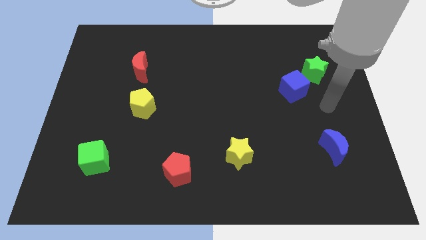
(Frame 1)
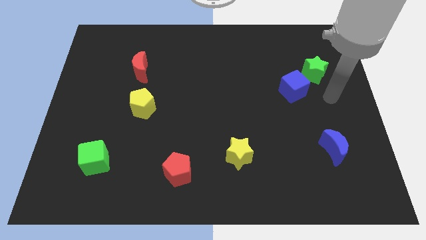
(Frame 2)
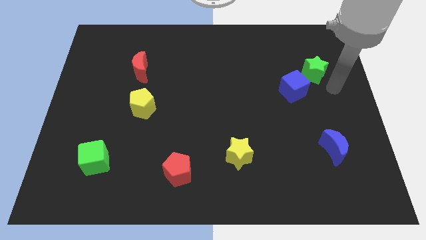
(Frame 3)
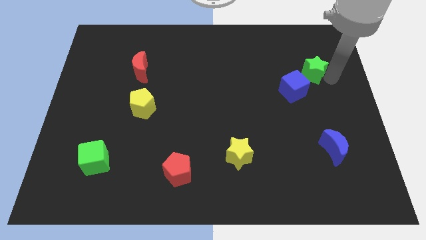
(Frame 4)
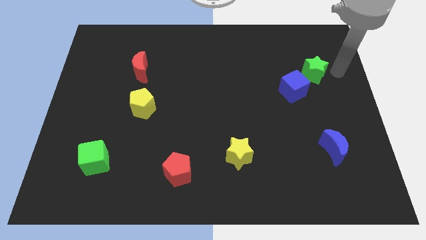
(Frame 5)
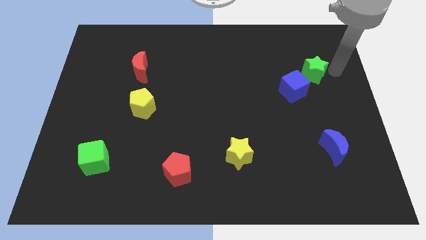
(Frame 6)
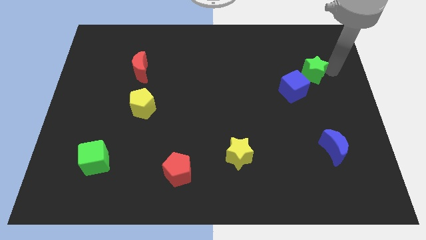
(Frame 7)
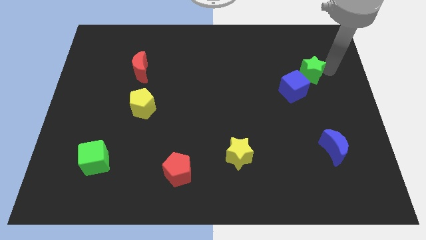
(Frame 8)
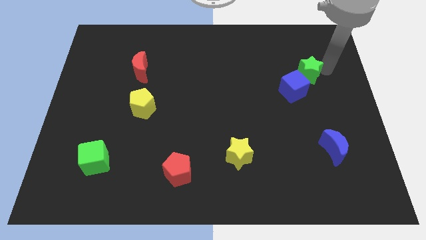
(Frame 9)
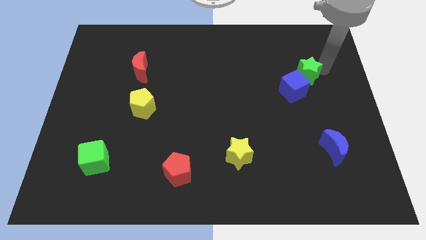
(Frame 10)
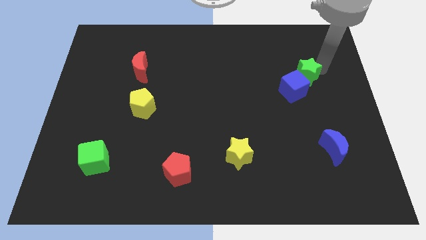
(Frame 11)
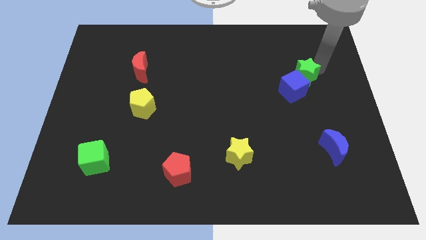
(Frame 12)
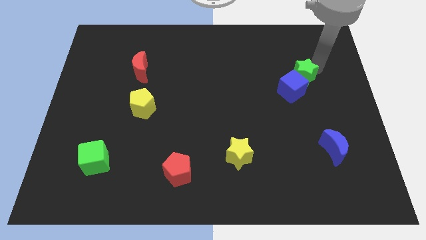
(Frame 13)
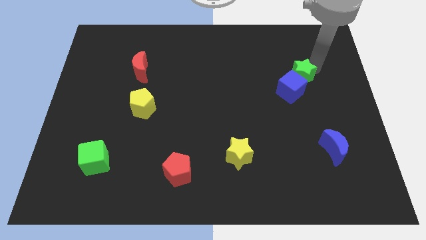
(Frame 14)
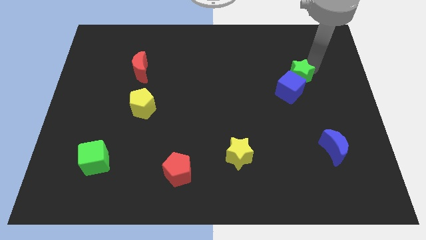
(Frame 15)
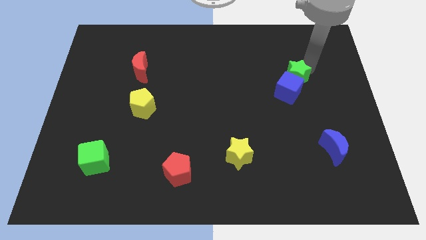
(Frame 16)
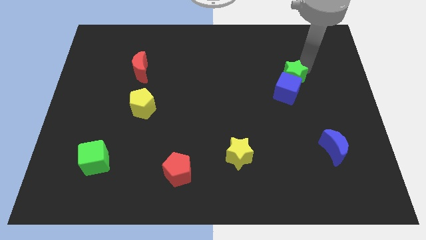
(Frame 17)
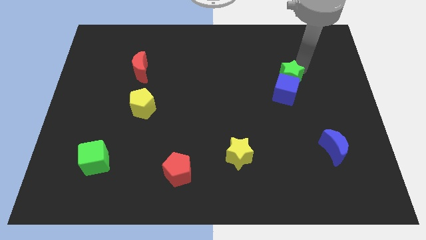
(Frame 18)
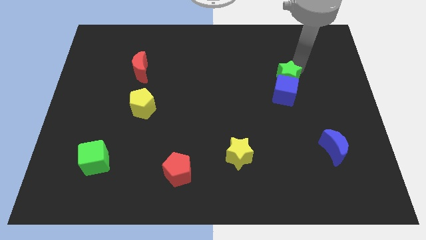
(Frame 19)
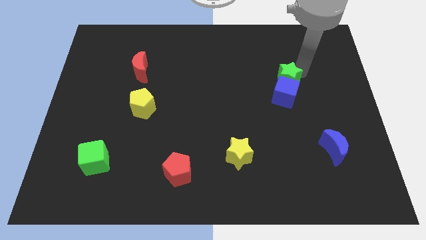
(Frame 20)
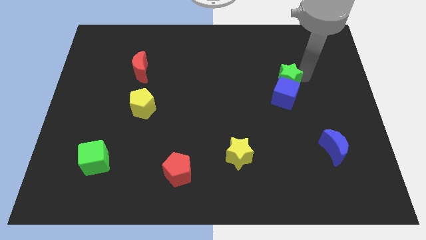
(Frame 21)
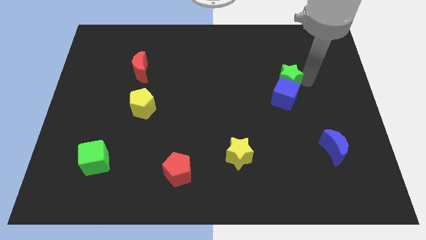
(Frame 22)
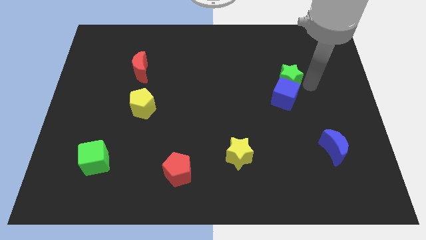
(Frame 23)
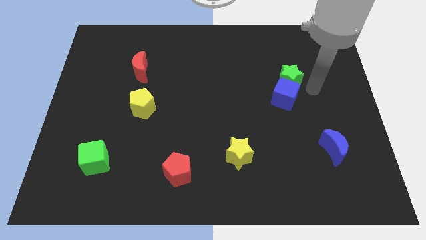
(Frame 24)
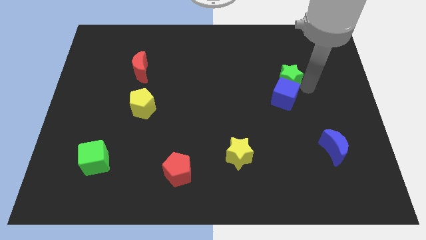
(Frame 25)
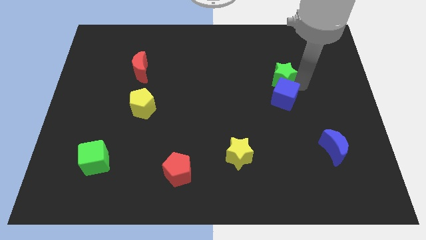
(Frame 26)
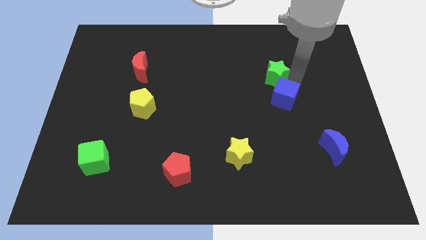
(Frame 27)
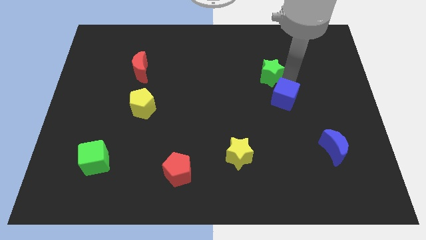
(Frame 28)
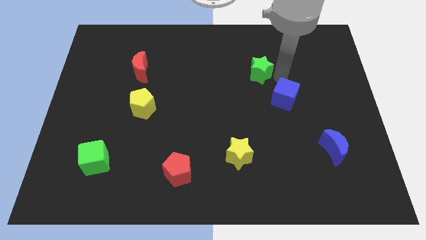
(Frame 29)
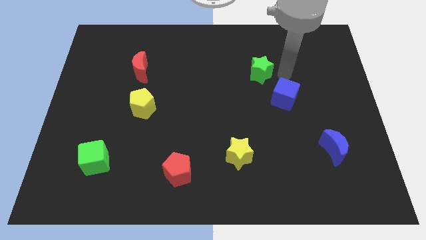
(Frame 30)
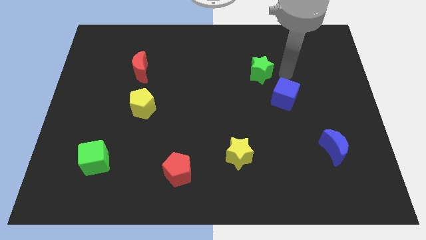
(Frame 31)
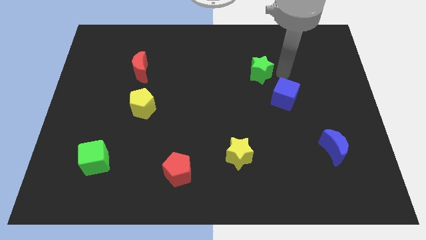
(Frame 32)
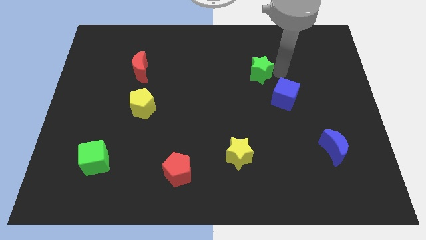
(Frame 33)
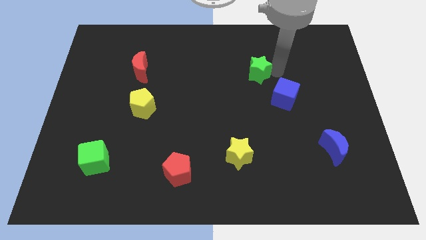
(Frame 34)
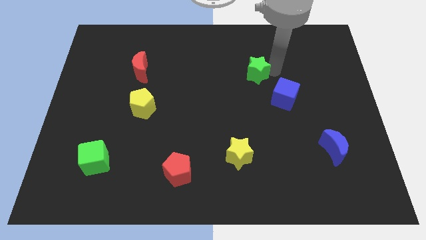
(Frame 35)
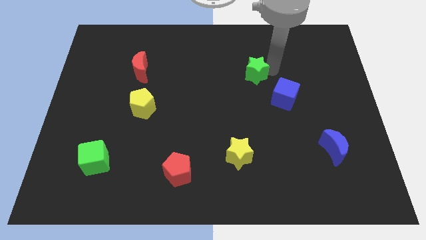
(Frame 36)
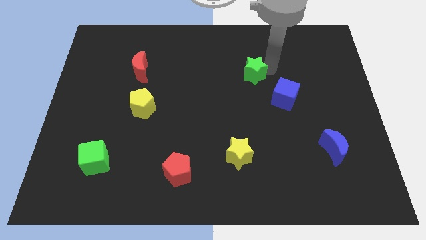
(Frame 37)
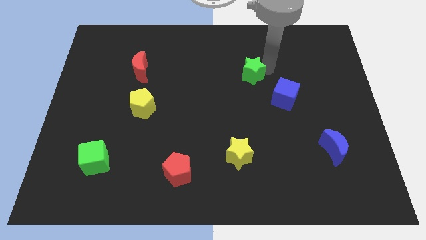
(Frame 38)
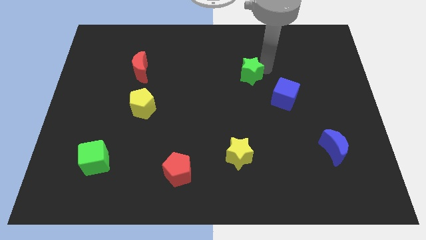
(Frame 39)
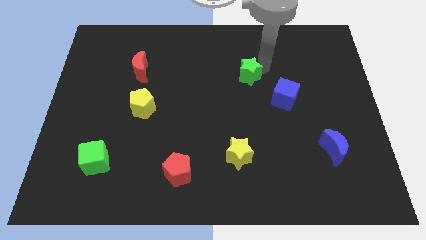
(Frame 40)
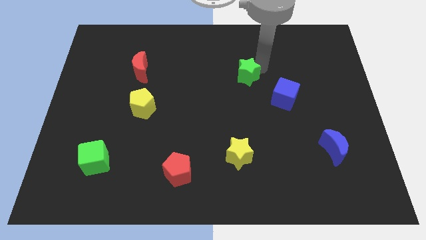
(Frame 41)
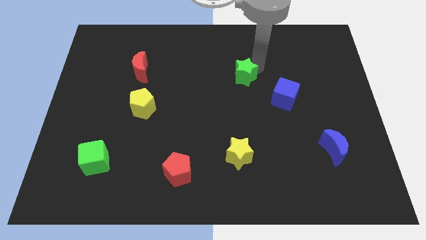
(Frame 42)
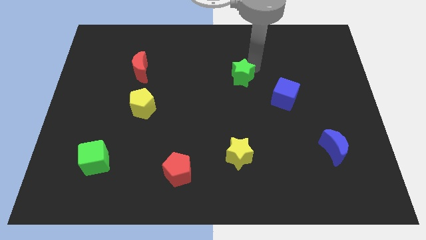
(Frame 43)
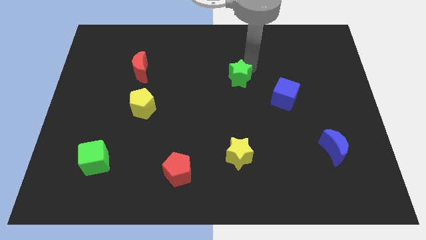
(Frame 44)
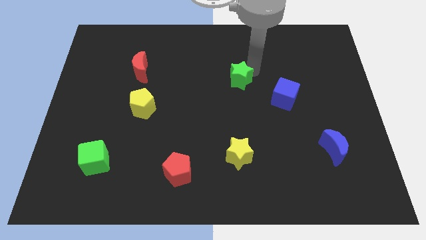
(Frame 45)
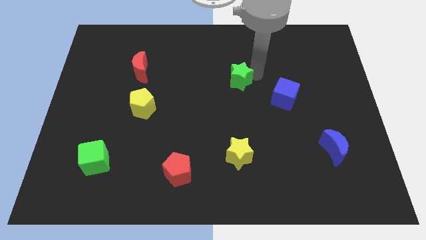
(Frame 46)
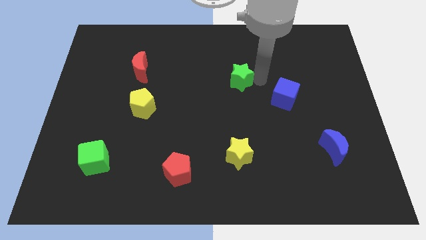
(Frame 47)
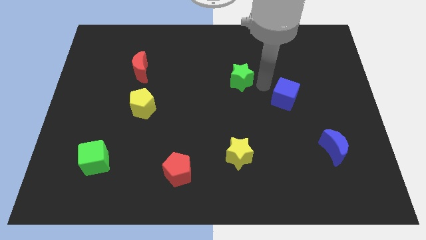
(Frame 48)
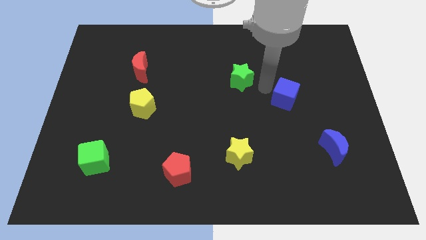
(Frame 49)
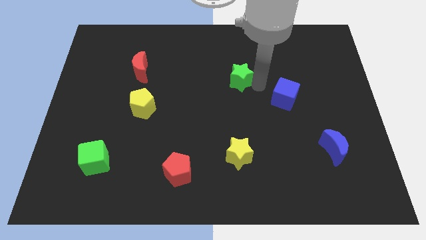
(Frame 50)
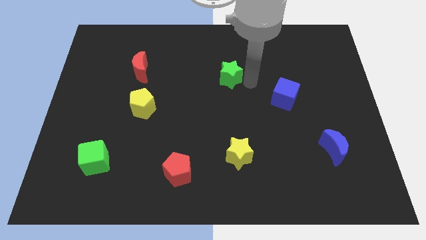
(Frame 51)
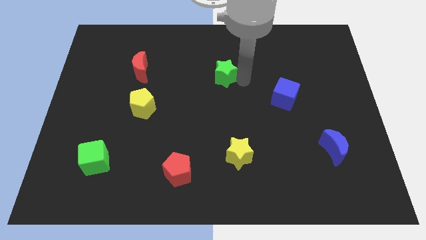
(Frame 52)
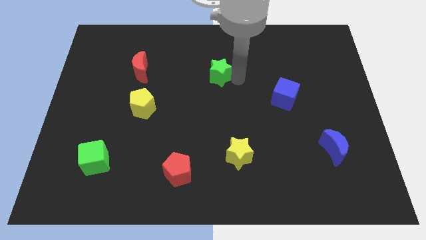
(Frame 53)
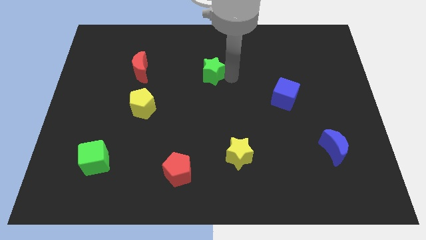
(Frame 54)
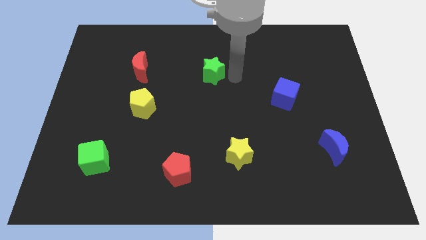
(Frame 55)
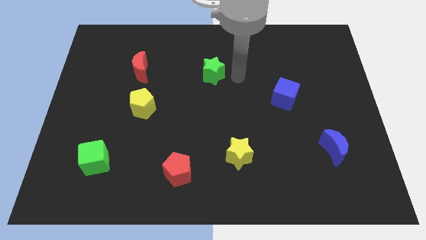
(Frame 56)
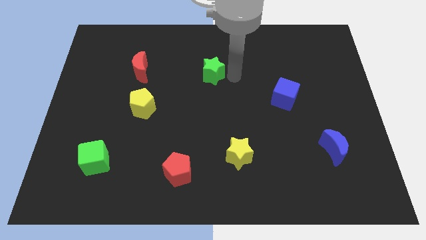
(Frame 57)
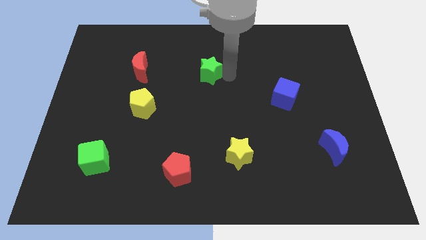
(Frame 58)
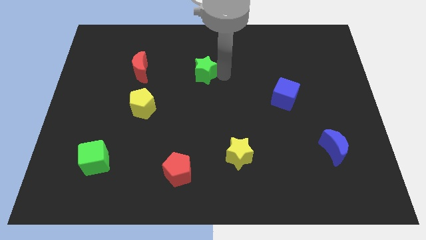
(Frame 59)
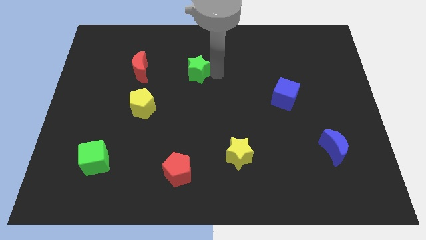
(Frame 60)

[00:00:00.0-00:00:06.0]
push the green star just right of the red moon

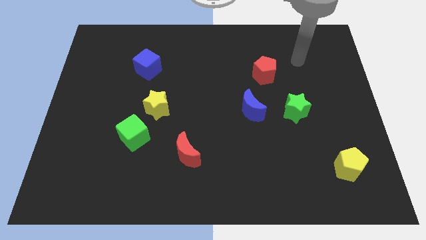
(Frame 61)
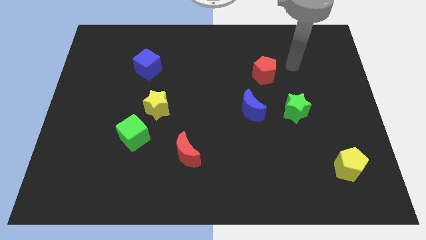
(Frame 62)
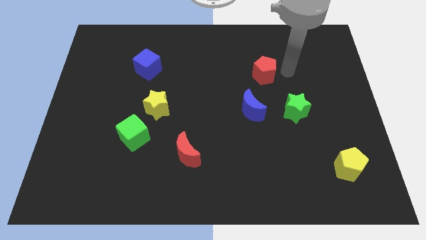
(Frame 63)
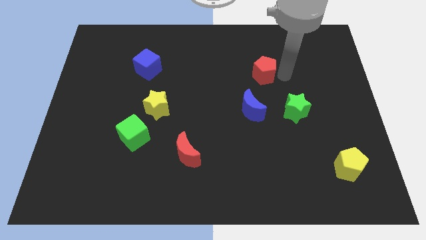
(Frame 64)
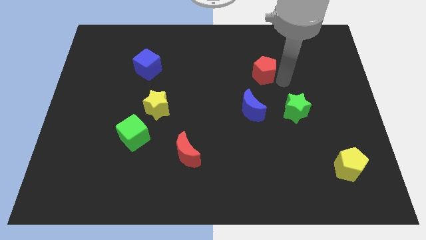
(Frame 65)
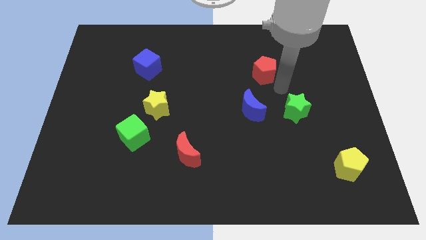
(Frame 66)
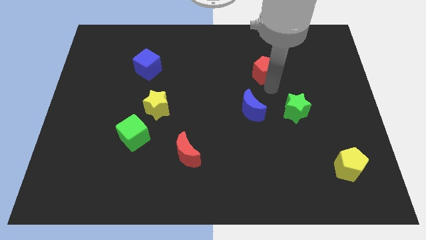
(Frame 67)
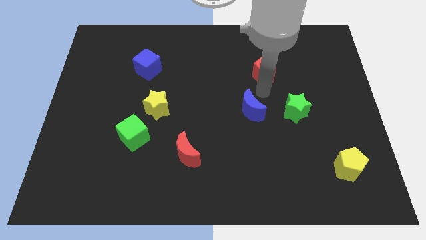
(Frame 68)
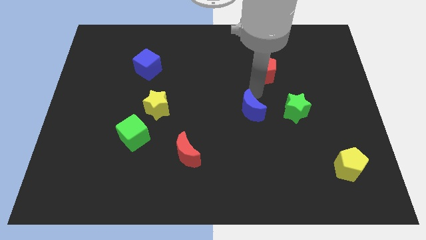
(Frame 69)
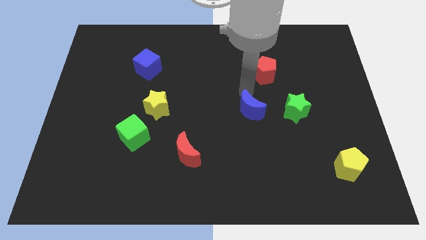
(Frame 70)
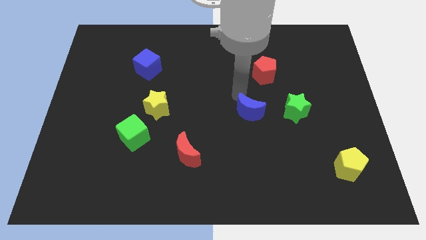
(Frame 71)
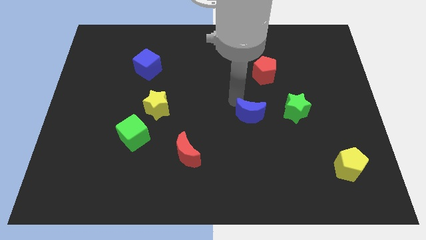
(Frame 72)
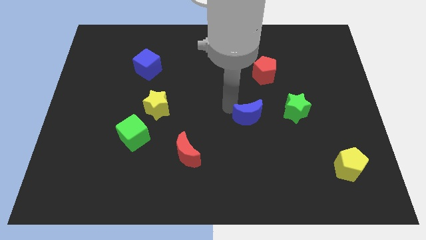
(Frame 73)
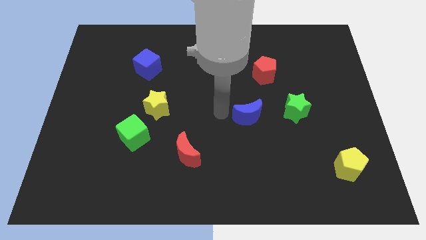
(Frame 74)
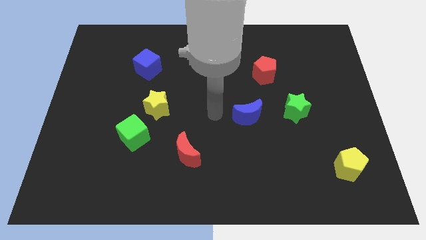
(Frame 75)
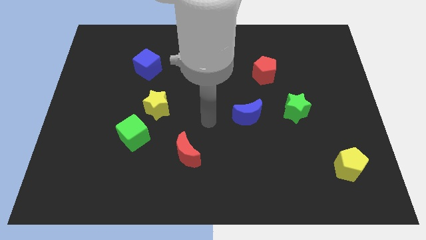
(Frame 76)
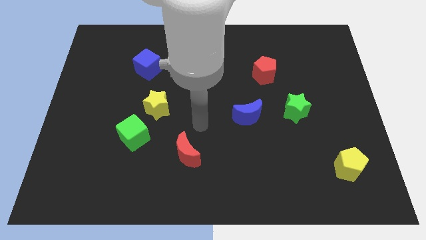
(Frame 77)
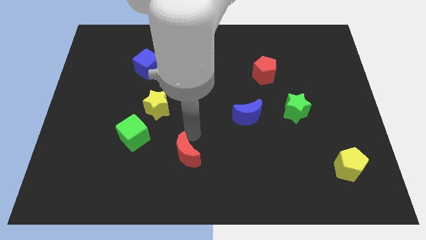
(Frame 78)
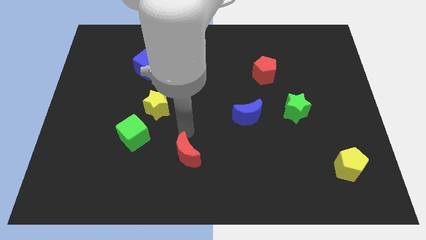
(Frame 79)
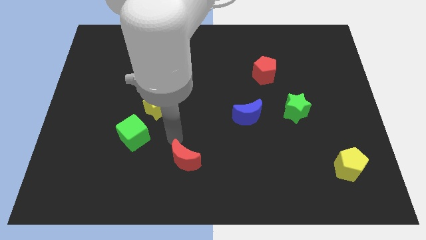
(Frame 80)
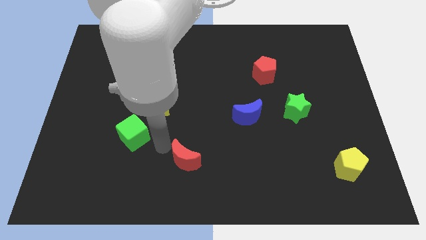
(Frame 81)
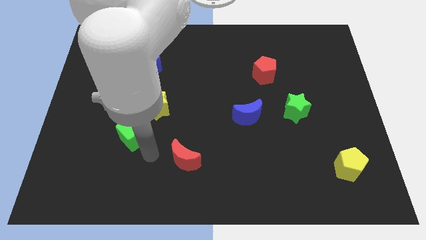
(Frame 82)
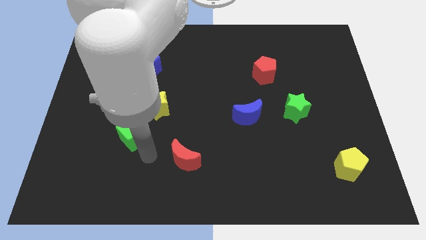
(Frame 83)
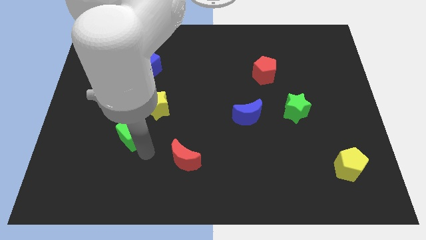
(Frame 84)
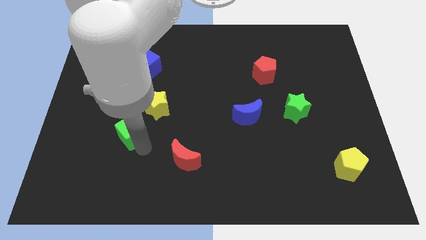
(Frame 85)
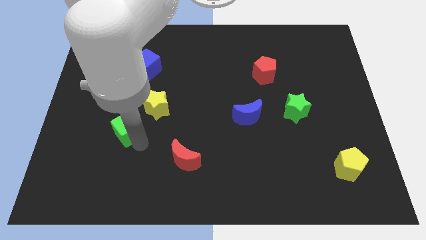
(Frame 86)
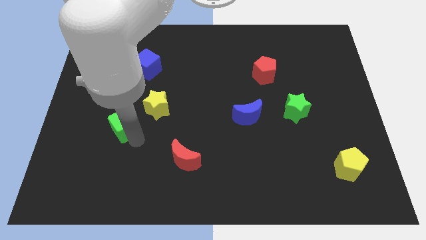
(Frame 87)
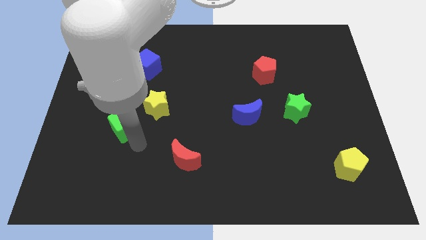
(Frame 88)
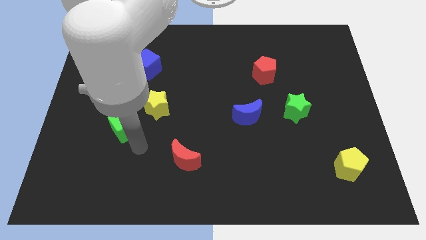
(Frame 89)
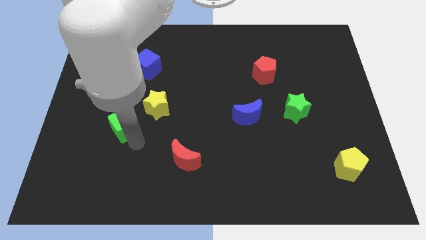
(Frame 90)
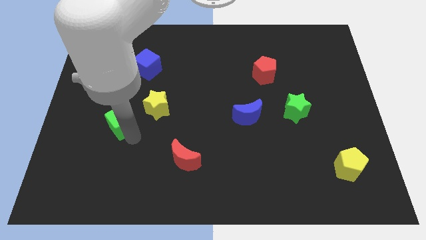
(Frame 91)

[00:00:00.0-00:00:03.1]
move the green cube just left of the yellow star
